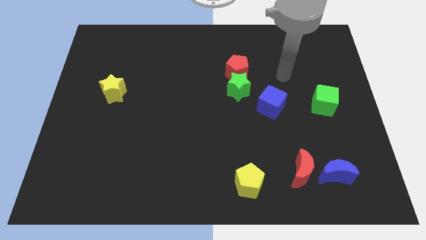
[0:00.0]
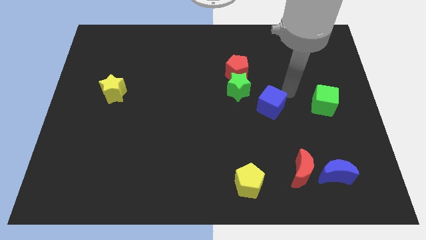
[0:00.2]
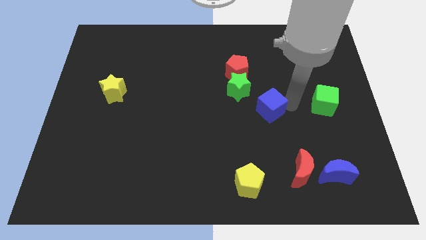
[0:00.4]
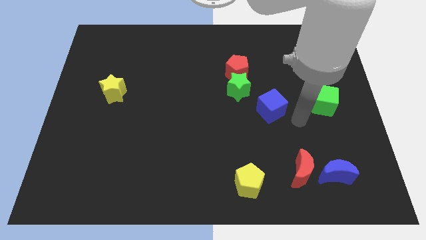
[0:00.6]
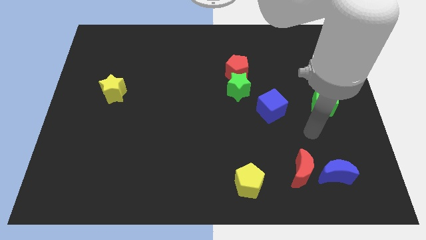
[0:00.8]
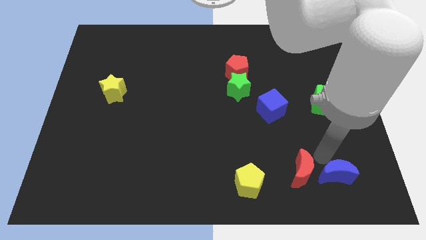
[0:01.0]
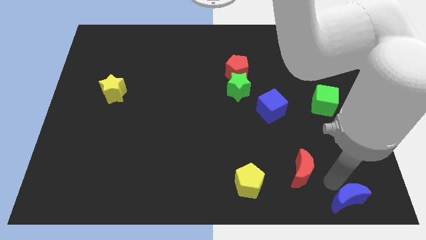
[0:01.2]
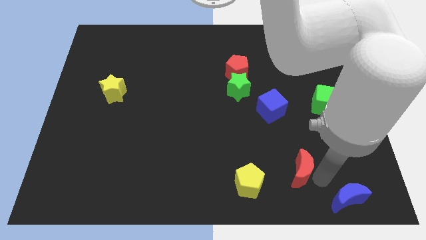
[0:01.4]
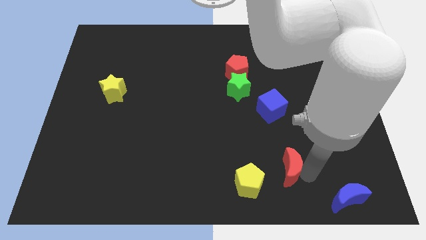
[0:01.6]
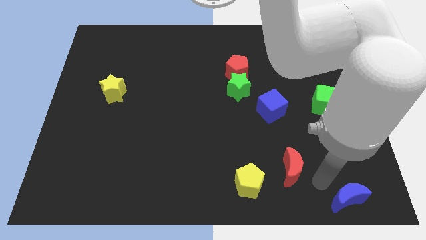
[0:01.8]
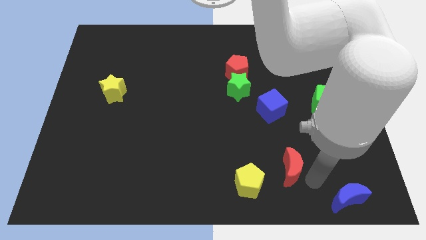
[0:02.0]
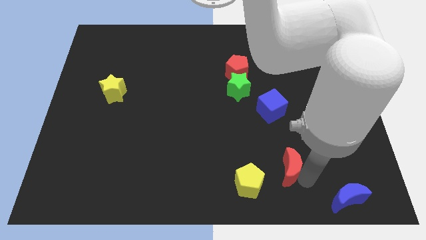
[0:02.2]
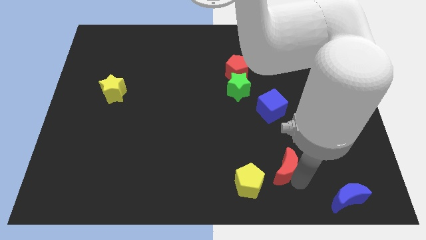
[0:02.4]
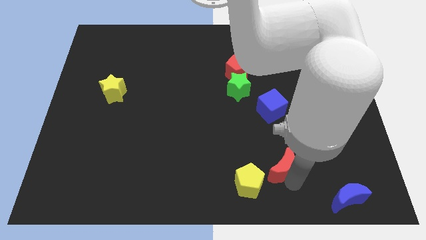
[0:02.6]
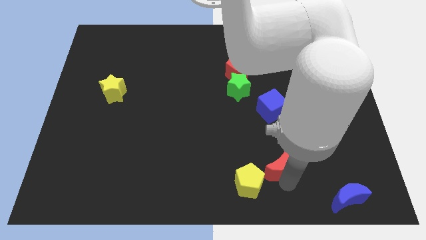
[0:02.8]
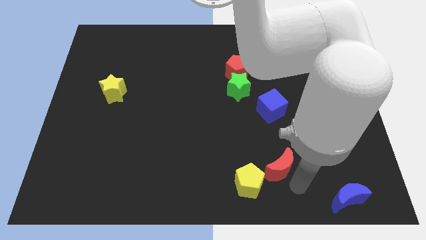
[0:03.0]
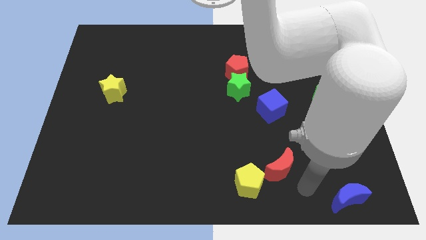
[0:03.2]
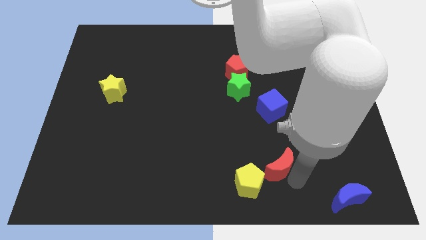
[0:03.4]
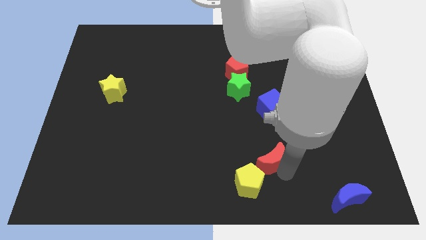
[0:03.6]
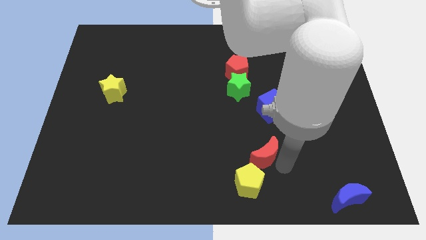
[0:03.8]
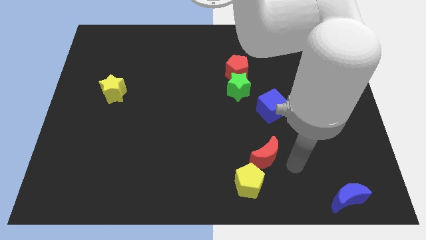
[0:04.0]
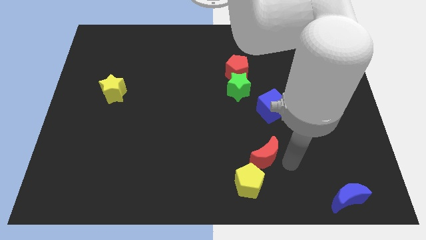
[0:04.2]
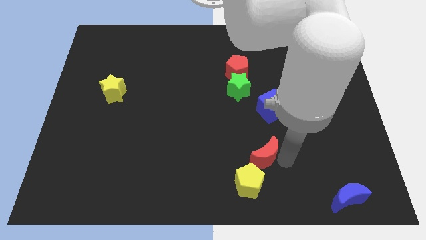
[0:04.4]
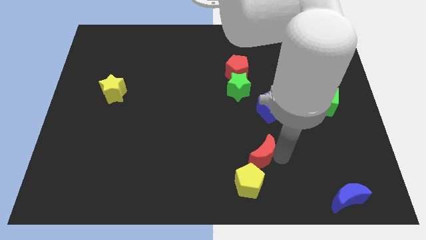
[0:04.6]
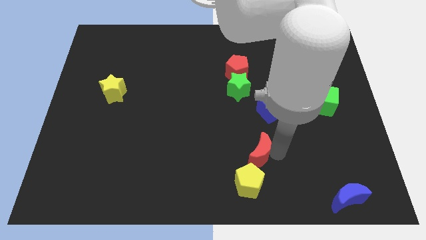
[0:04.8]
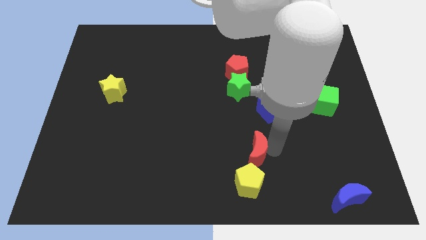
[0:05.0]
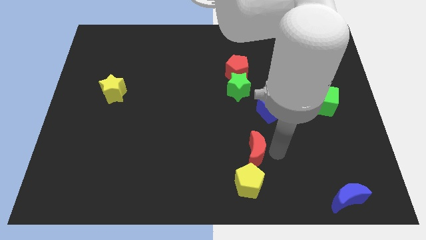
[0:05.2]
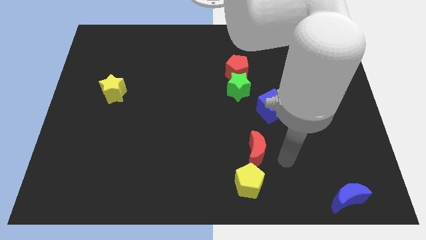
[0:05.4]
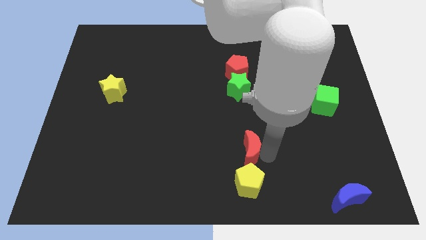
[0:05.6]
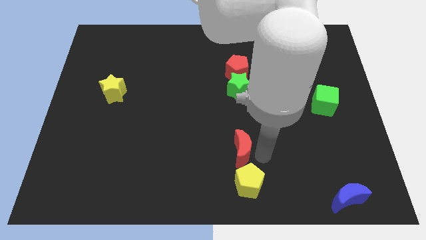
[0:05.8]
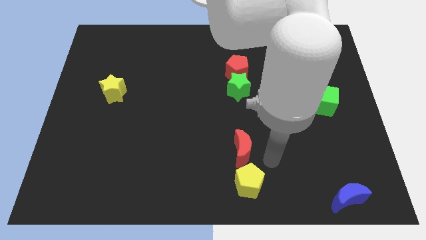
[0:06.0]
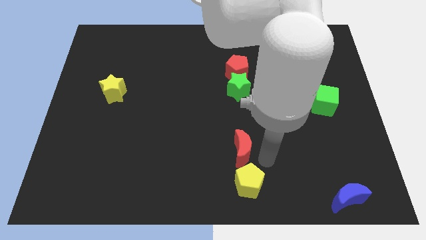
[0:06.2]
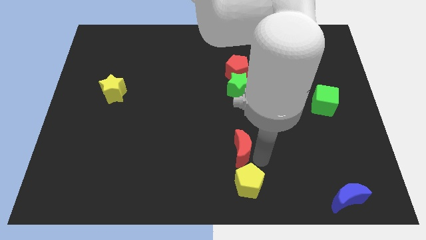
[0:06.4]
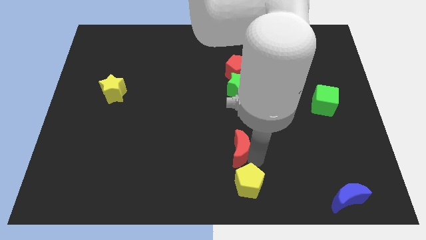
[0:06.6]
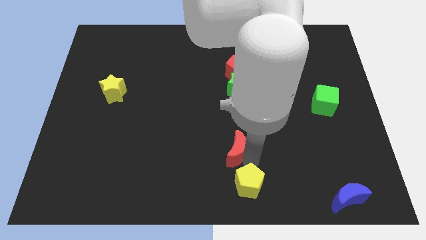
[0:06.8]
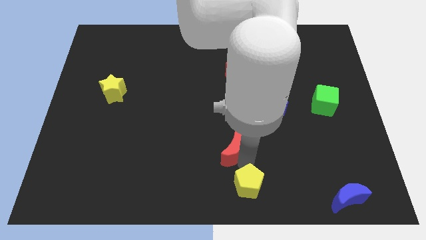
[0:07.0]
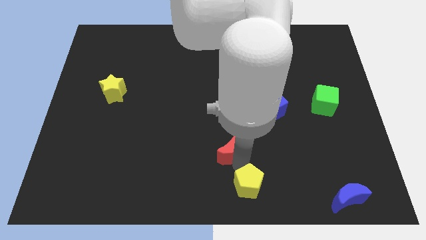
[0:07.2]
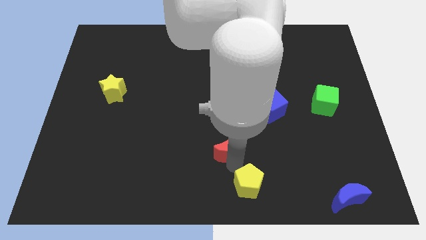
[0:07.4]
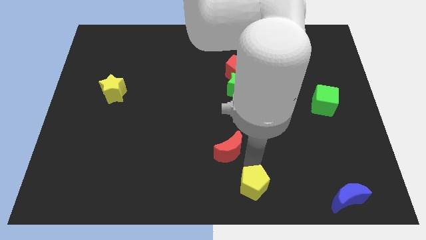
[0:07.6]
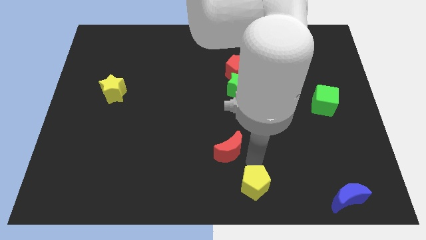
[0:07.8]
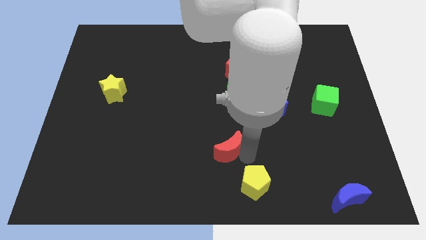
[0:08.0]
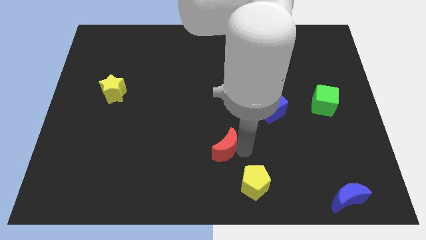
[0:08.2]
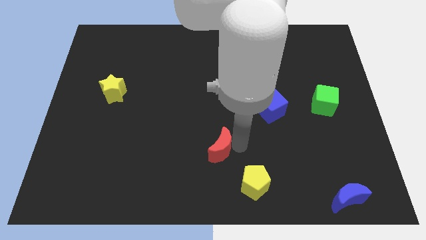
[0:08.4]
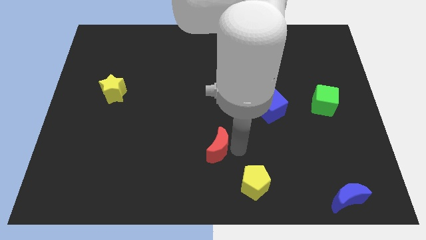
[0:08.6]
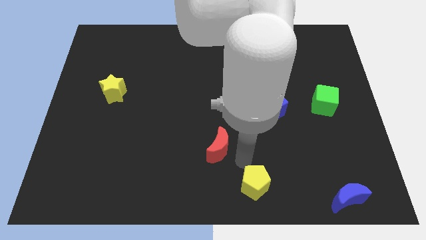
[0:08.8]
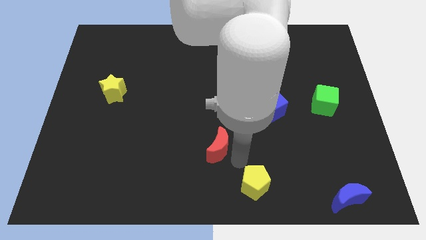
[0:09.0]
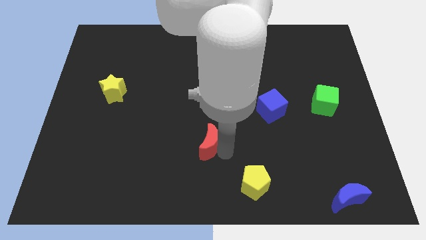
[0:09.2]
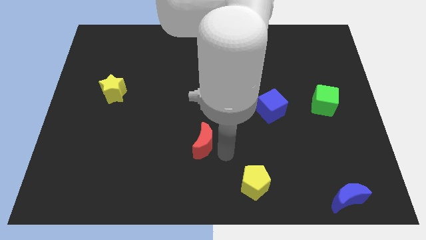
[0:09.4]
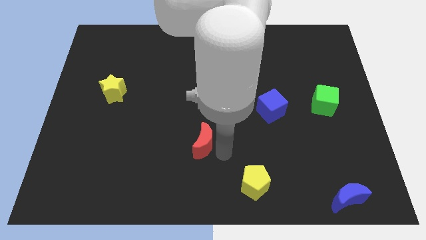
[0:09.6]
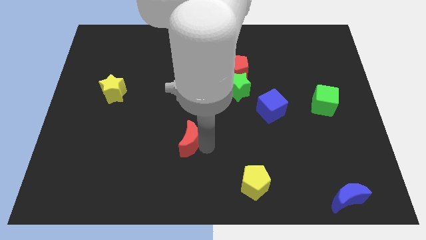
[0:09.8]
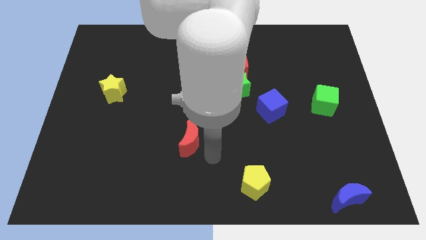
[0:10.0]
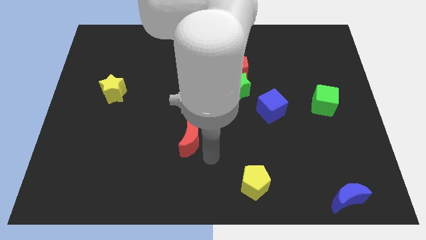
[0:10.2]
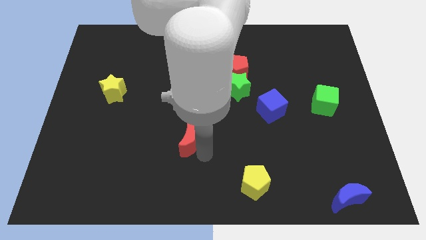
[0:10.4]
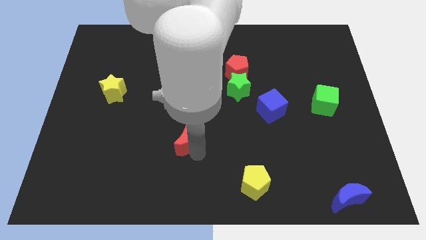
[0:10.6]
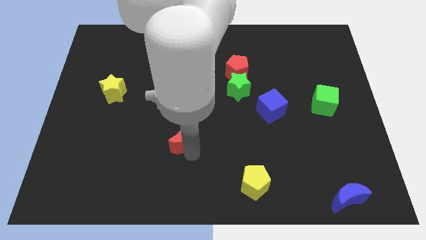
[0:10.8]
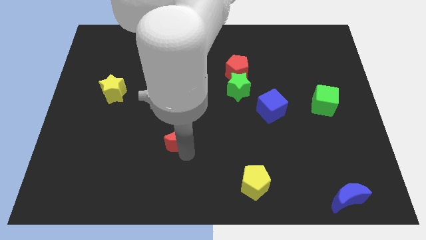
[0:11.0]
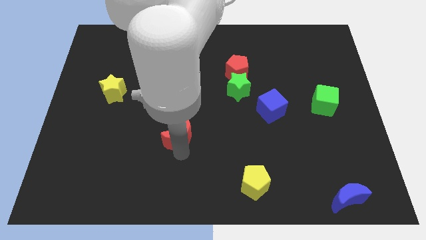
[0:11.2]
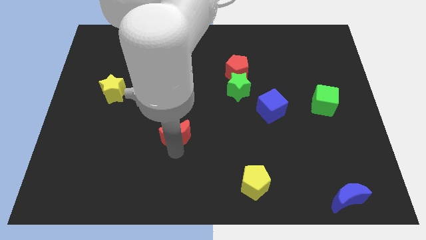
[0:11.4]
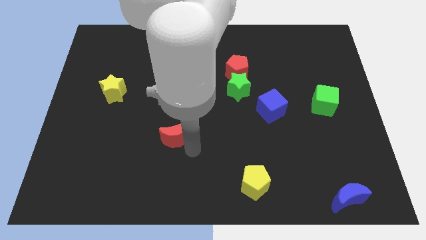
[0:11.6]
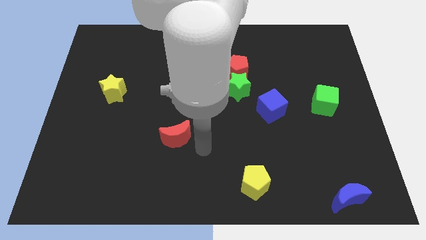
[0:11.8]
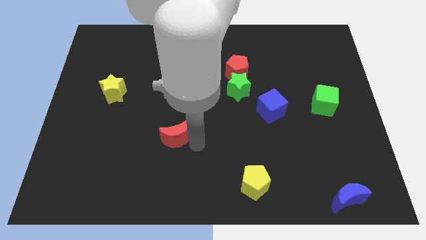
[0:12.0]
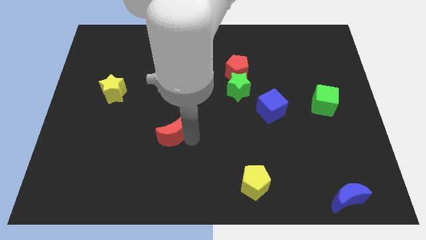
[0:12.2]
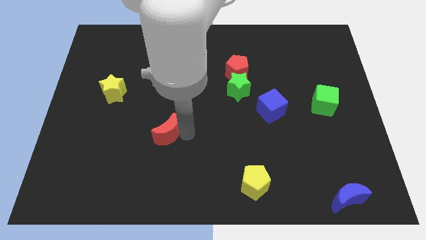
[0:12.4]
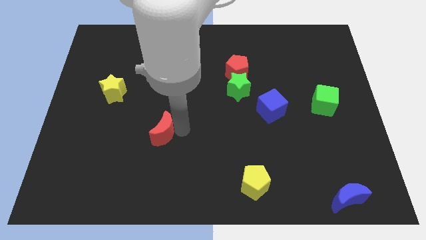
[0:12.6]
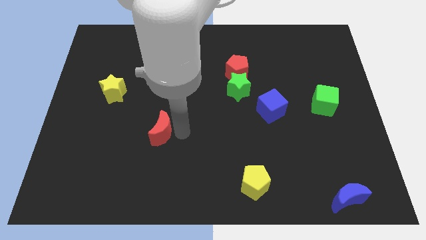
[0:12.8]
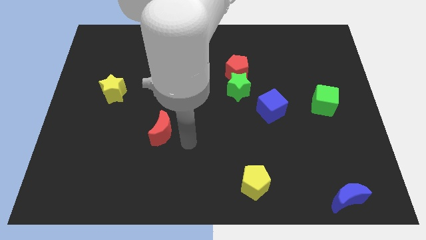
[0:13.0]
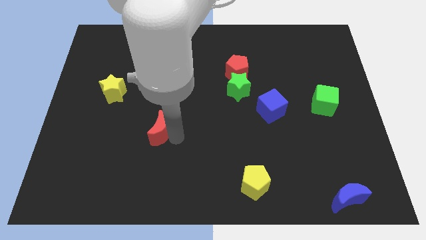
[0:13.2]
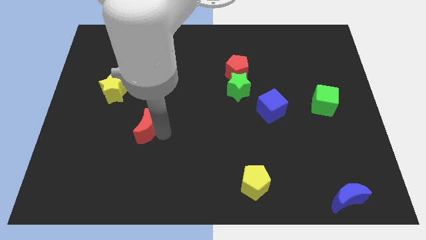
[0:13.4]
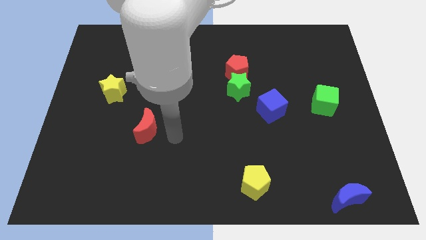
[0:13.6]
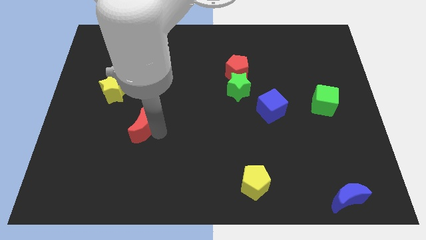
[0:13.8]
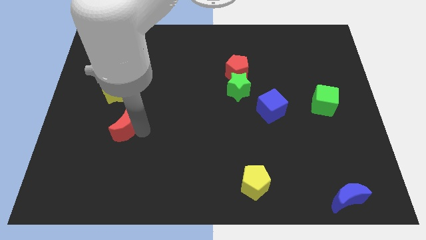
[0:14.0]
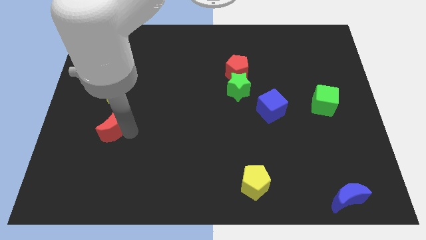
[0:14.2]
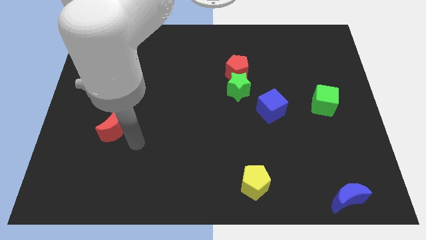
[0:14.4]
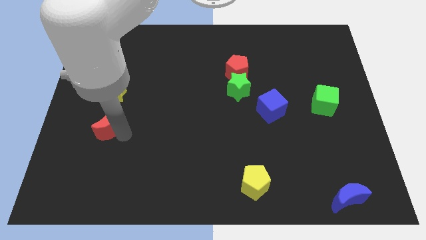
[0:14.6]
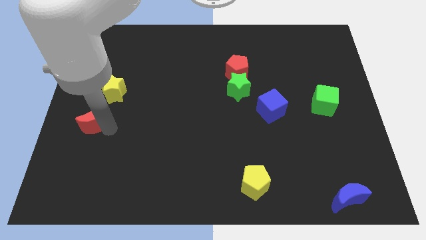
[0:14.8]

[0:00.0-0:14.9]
move the red moon to the left side
